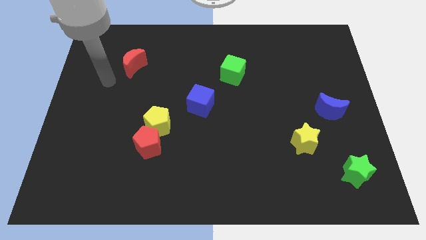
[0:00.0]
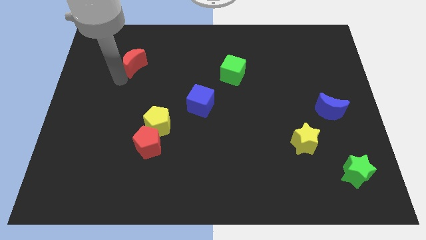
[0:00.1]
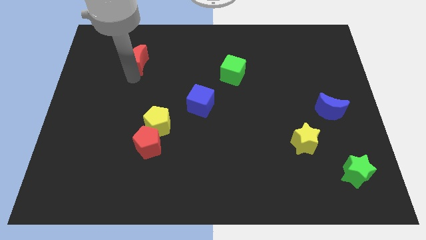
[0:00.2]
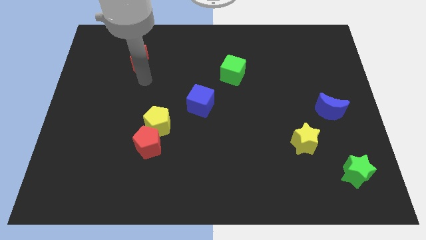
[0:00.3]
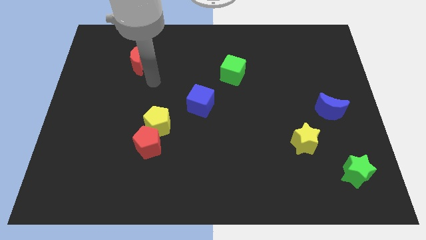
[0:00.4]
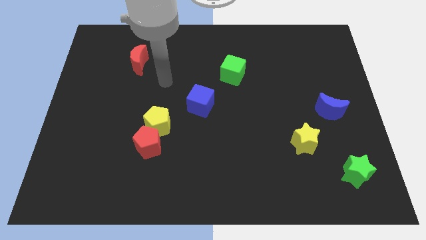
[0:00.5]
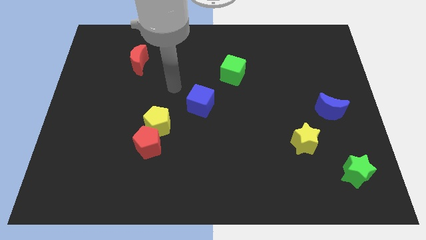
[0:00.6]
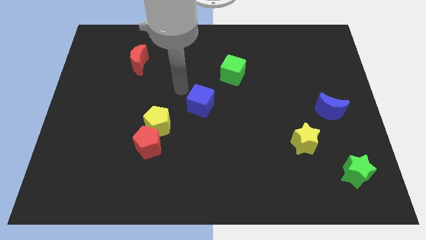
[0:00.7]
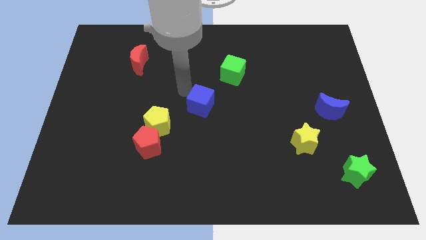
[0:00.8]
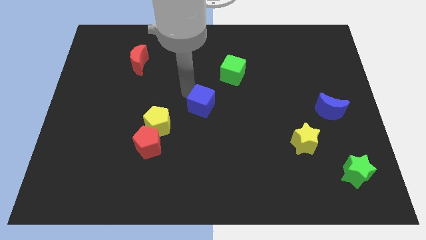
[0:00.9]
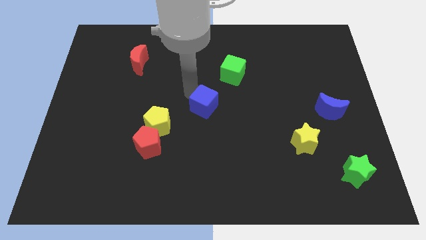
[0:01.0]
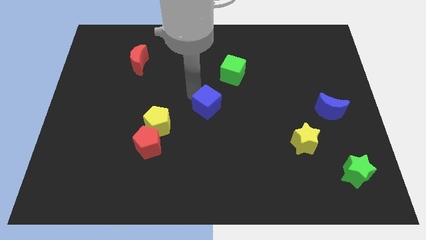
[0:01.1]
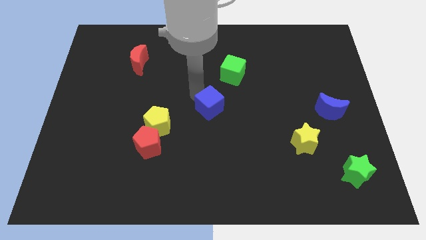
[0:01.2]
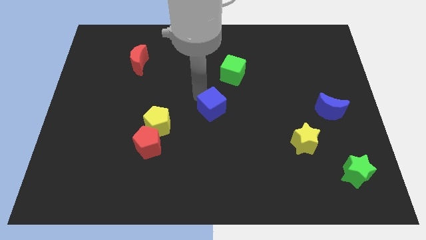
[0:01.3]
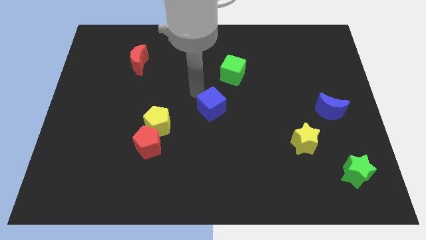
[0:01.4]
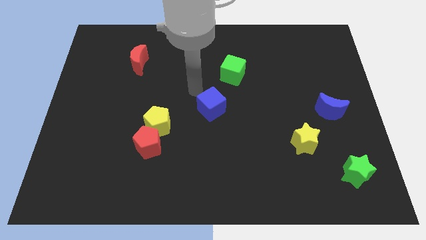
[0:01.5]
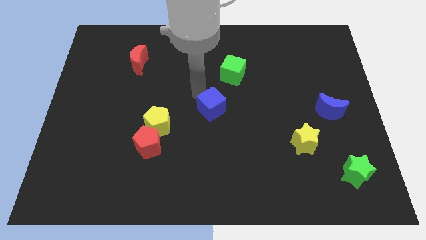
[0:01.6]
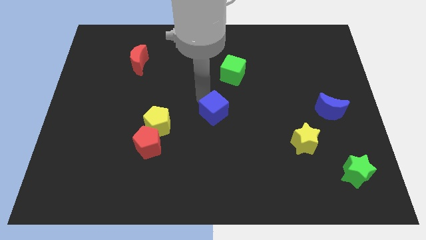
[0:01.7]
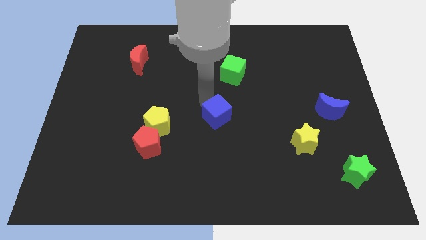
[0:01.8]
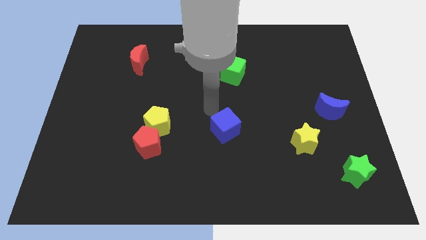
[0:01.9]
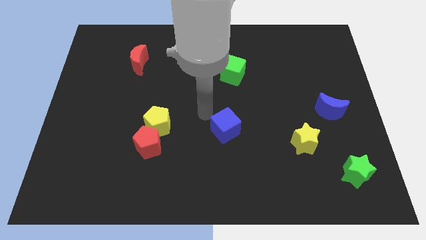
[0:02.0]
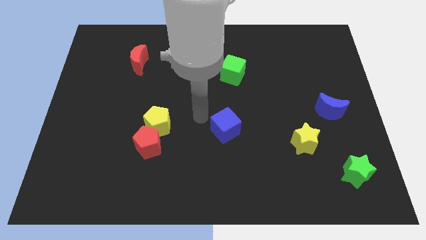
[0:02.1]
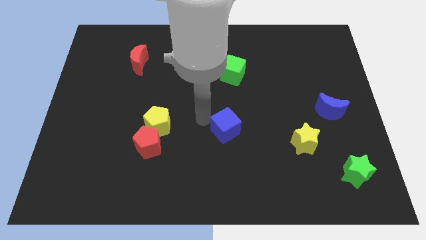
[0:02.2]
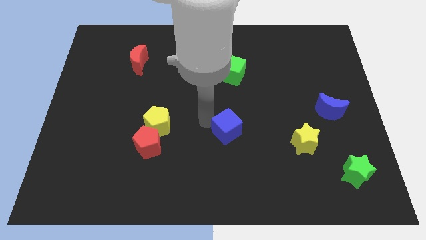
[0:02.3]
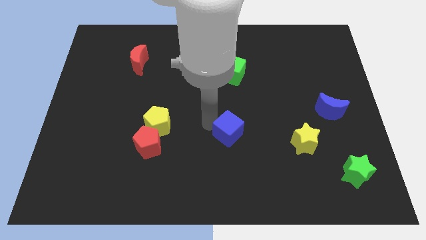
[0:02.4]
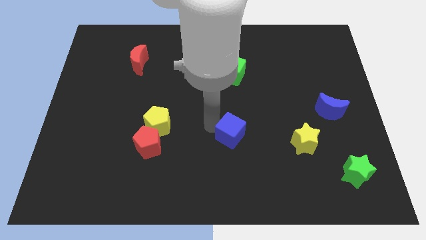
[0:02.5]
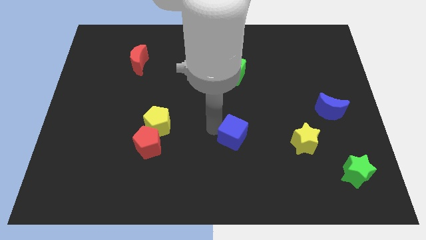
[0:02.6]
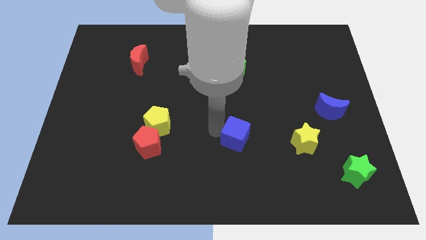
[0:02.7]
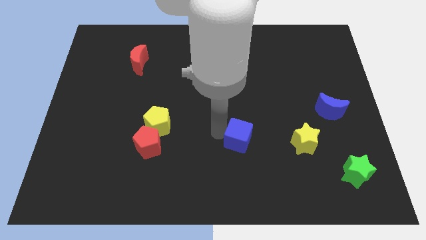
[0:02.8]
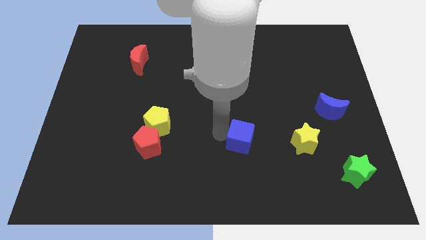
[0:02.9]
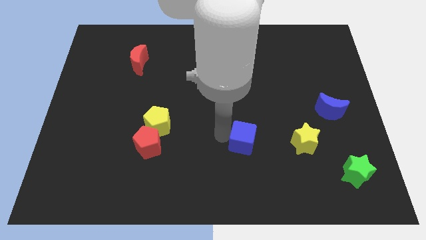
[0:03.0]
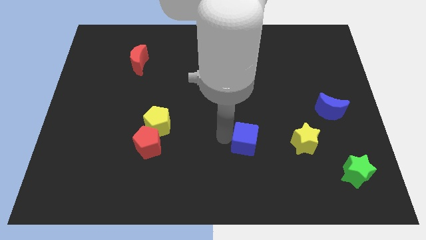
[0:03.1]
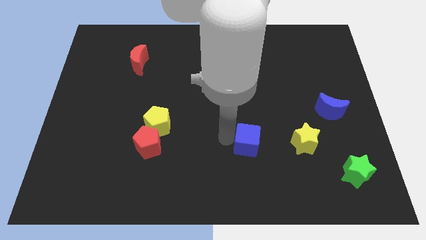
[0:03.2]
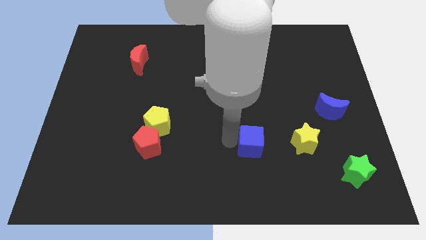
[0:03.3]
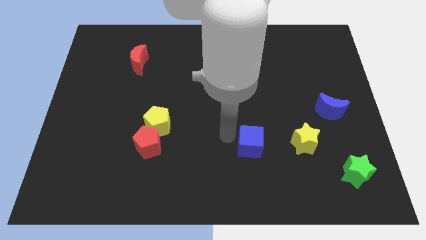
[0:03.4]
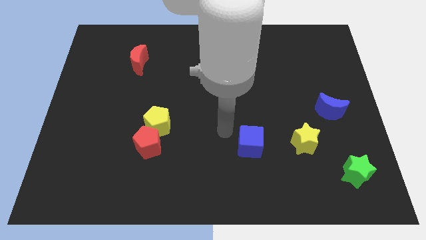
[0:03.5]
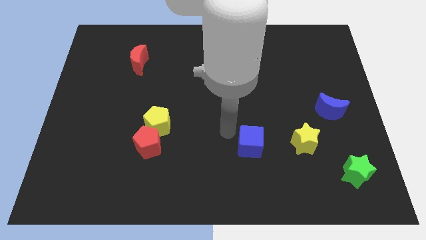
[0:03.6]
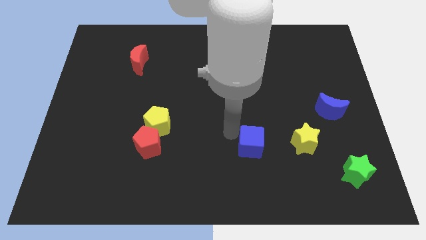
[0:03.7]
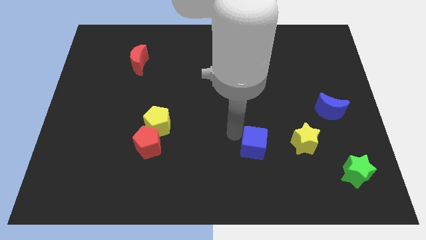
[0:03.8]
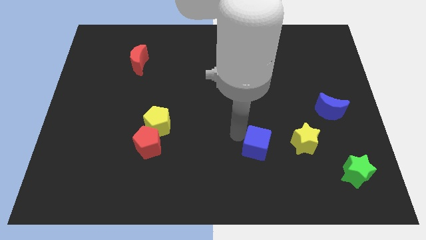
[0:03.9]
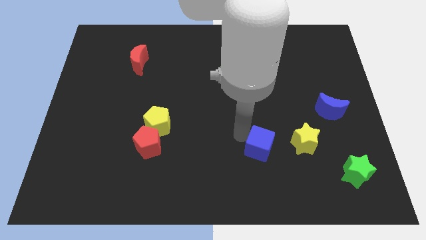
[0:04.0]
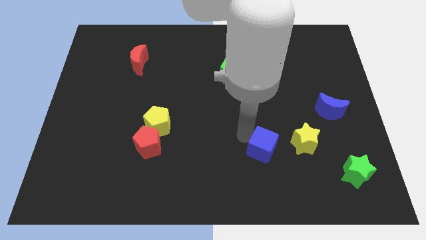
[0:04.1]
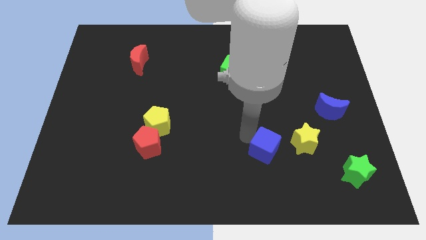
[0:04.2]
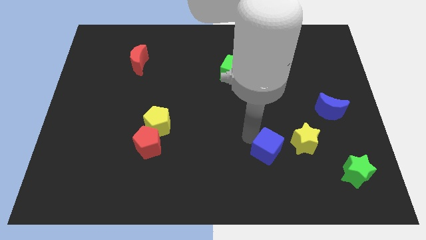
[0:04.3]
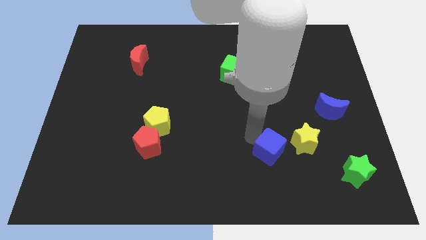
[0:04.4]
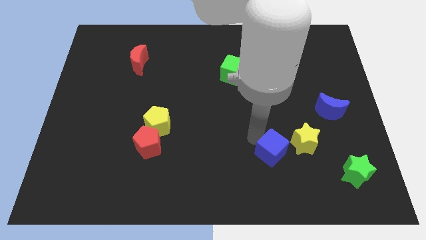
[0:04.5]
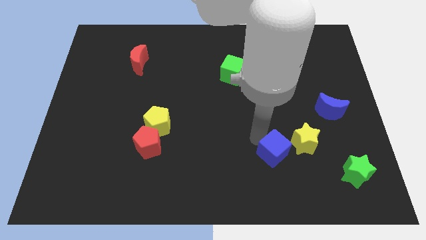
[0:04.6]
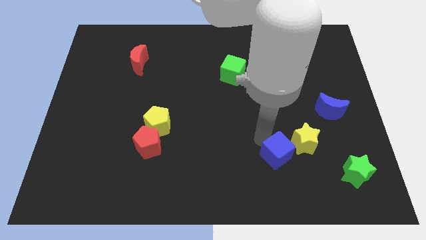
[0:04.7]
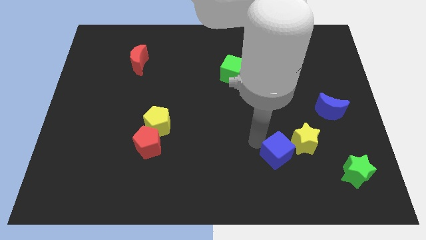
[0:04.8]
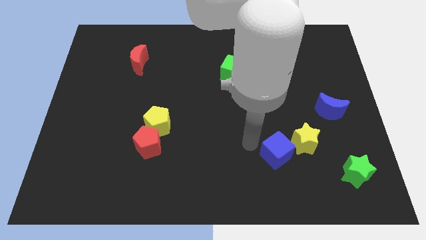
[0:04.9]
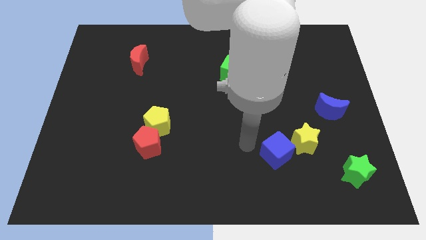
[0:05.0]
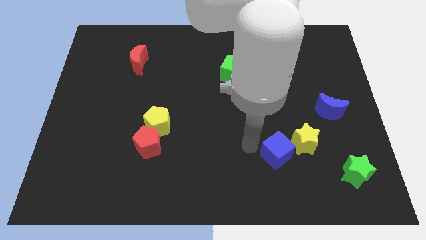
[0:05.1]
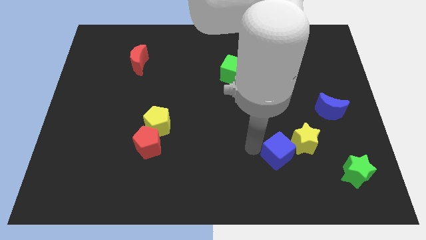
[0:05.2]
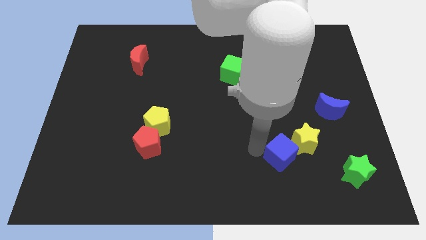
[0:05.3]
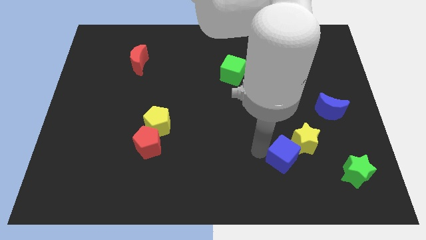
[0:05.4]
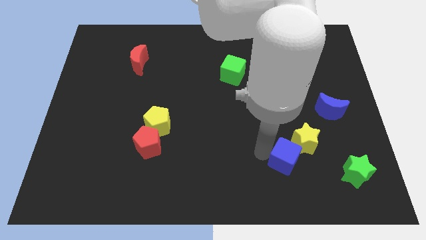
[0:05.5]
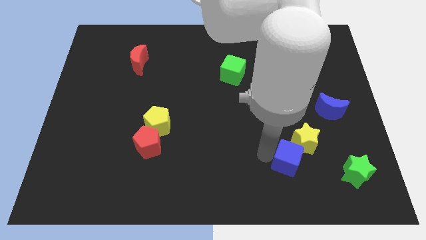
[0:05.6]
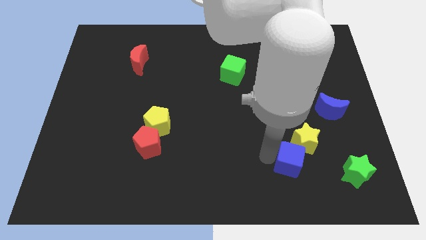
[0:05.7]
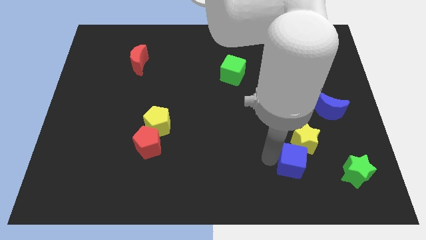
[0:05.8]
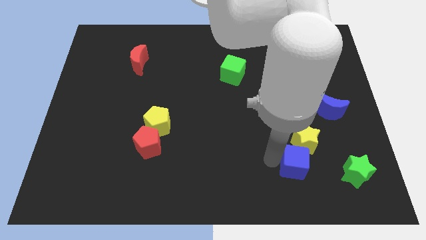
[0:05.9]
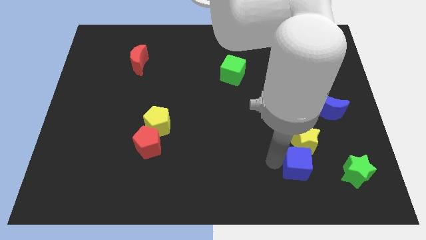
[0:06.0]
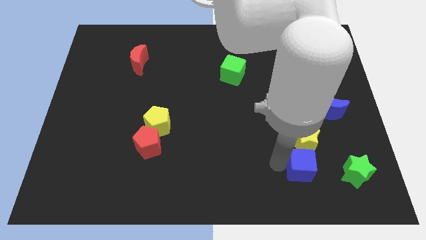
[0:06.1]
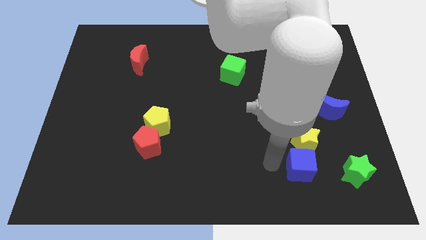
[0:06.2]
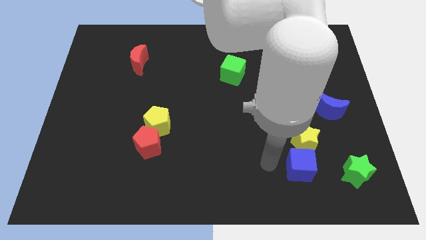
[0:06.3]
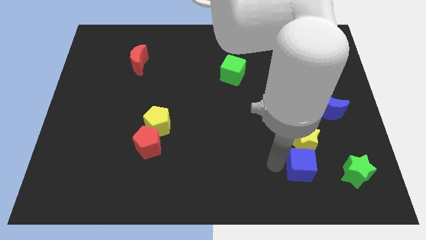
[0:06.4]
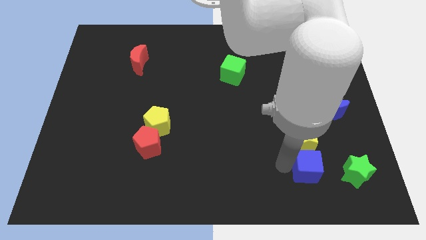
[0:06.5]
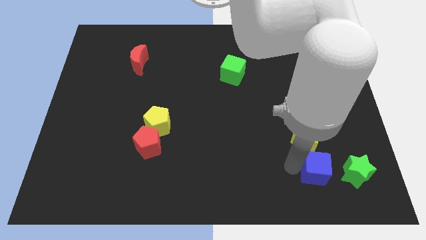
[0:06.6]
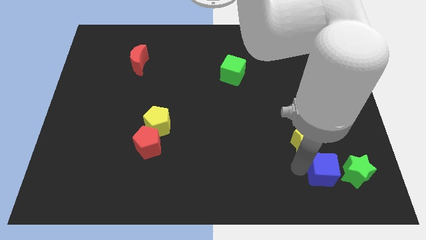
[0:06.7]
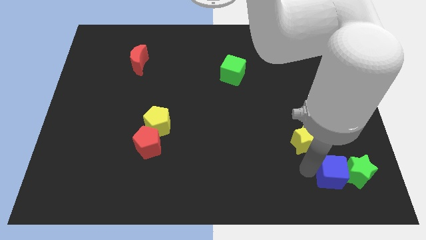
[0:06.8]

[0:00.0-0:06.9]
slide the blue cube to the green star
